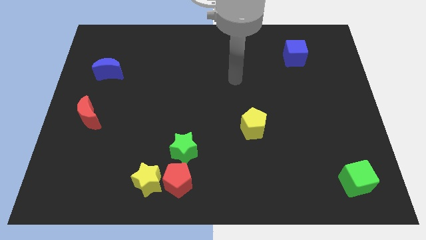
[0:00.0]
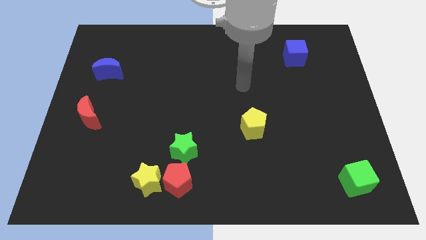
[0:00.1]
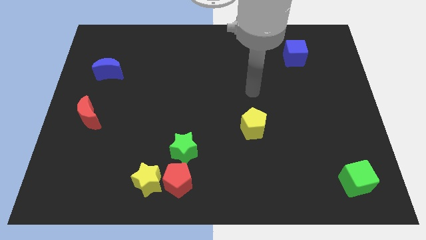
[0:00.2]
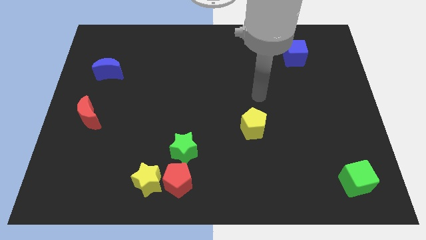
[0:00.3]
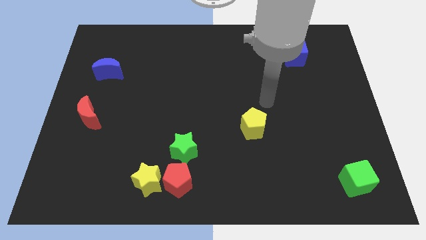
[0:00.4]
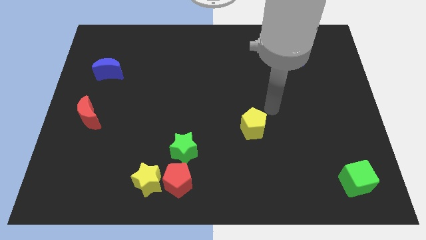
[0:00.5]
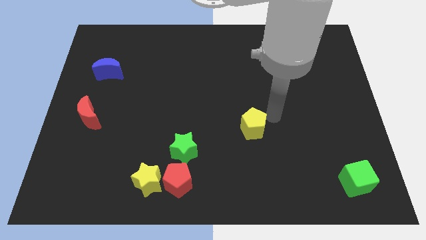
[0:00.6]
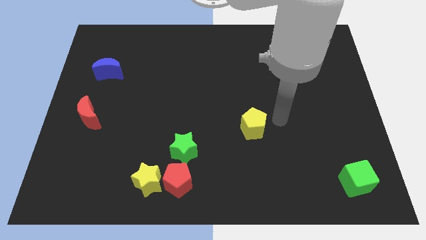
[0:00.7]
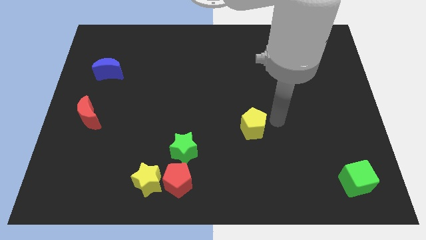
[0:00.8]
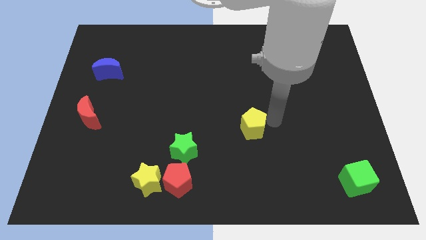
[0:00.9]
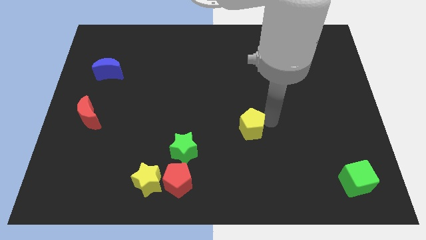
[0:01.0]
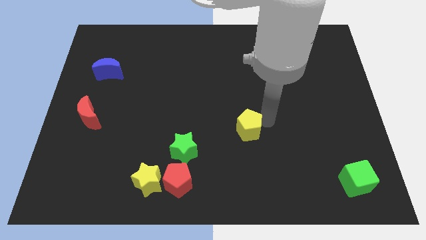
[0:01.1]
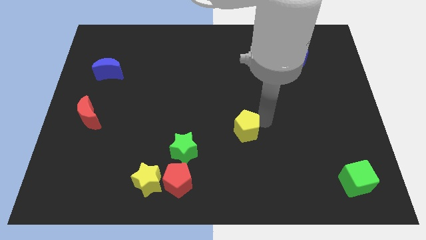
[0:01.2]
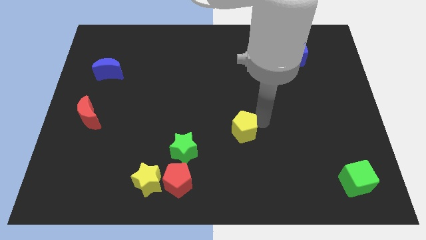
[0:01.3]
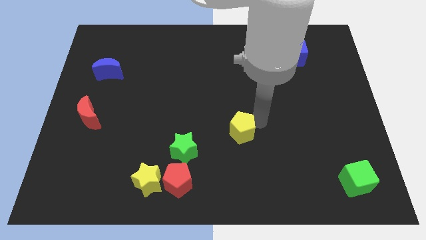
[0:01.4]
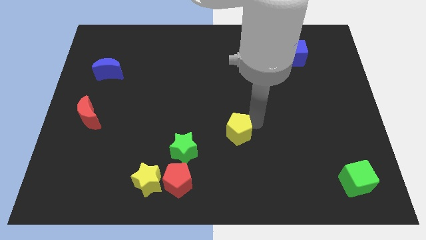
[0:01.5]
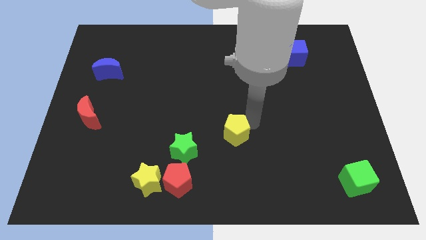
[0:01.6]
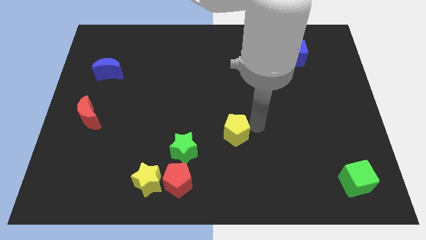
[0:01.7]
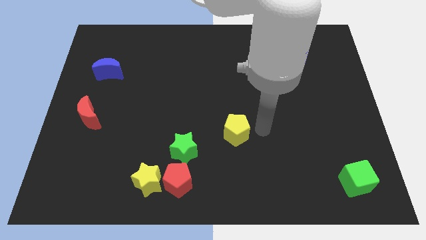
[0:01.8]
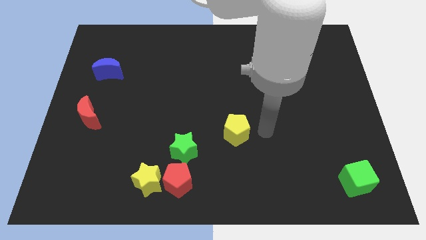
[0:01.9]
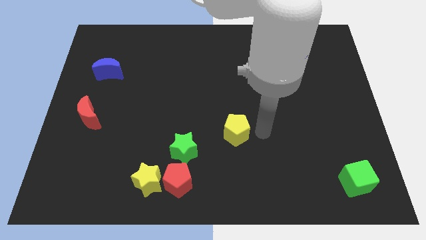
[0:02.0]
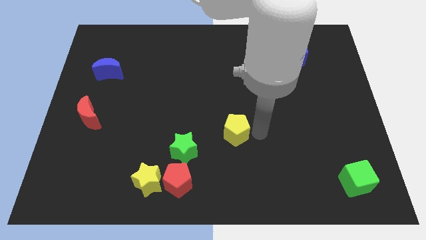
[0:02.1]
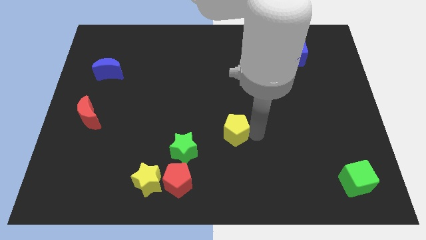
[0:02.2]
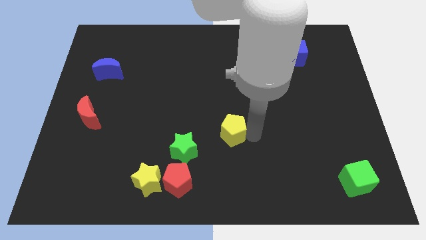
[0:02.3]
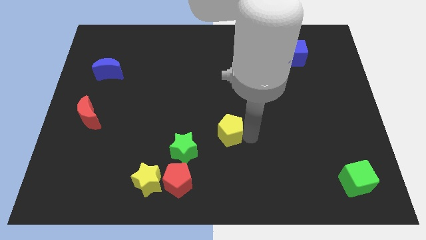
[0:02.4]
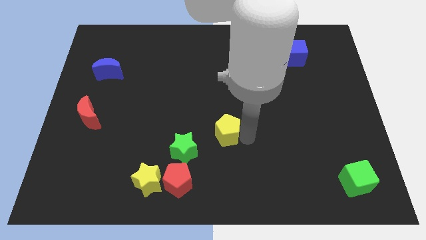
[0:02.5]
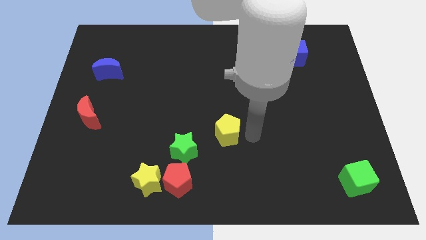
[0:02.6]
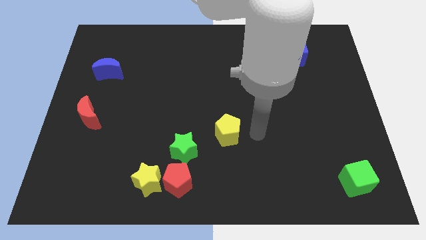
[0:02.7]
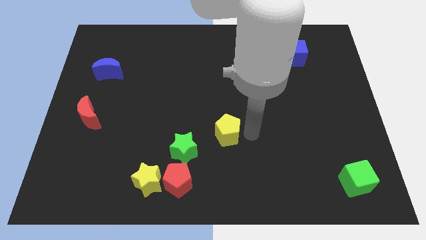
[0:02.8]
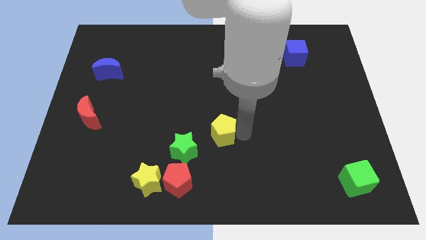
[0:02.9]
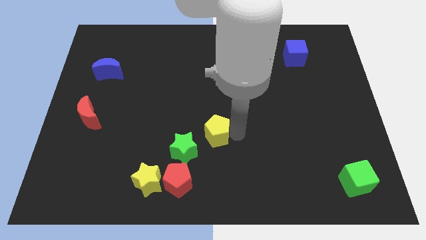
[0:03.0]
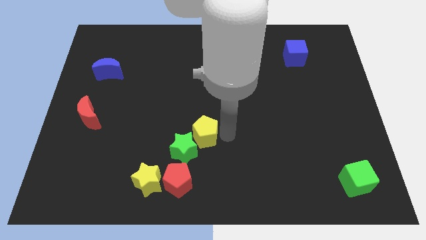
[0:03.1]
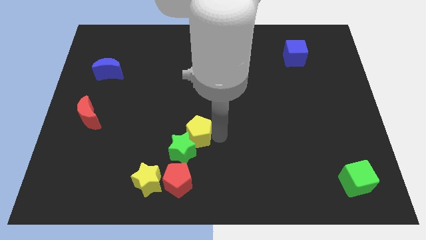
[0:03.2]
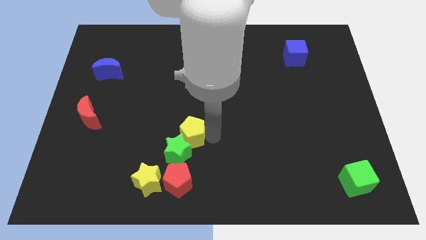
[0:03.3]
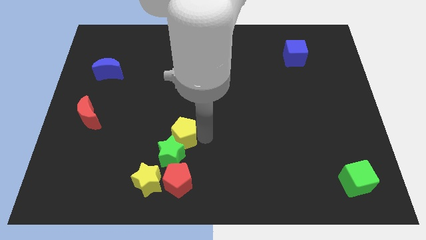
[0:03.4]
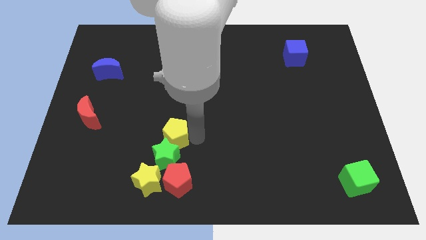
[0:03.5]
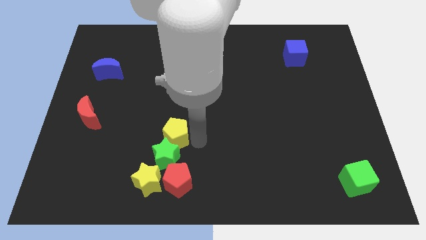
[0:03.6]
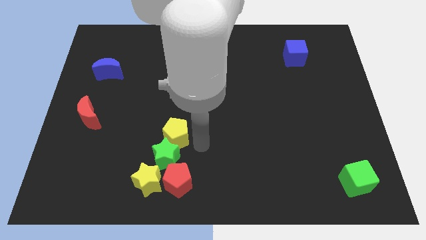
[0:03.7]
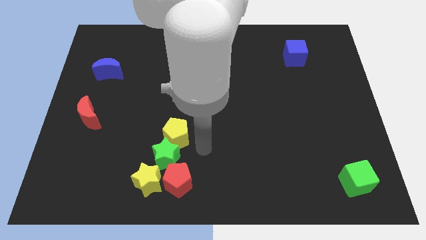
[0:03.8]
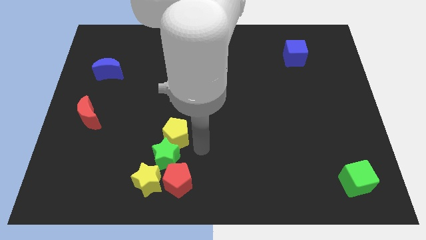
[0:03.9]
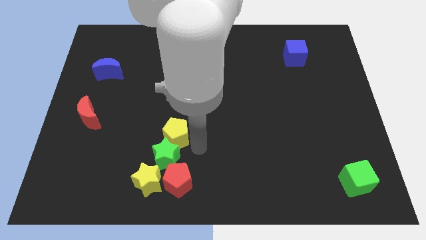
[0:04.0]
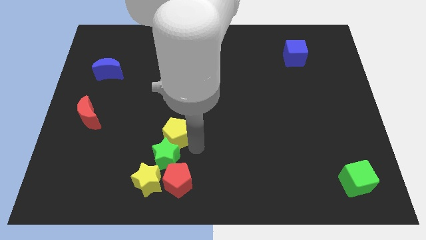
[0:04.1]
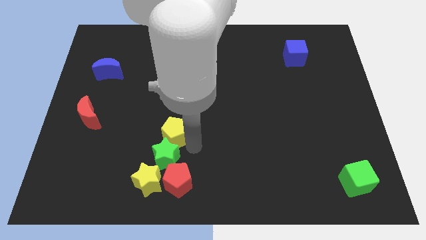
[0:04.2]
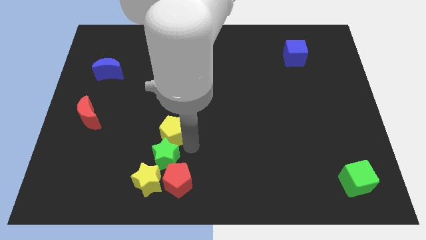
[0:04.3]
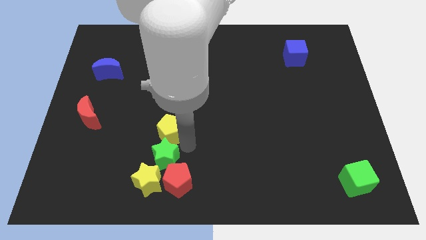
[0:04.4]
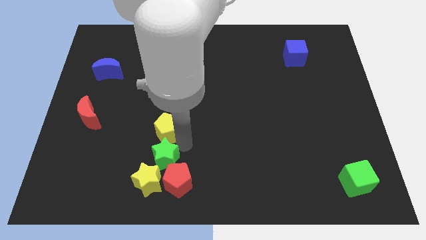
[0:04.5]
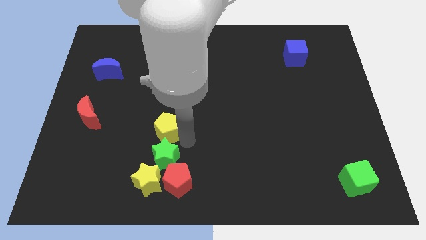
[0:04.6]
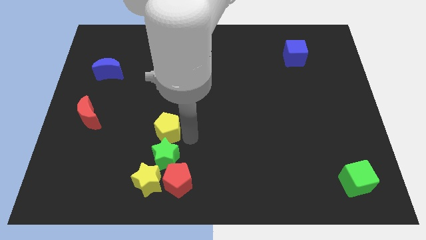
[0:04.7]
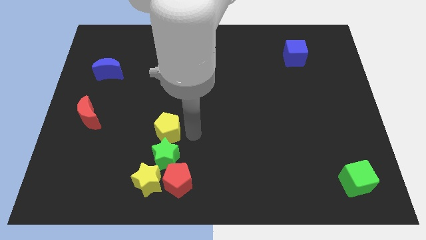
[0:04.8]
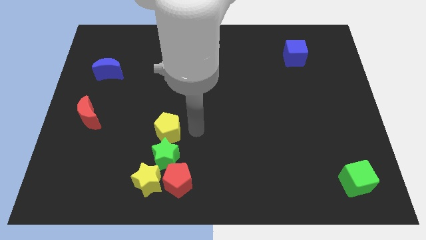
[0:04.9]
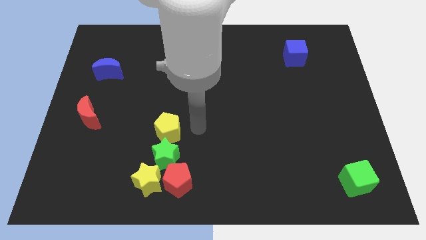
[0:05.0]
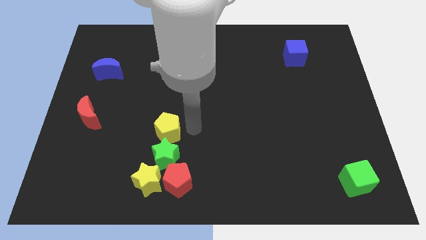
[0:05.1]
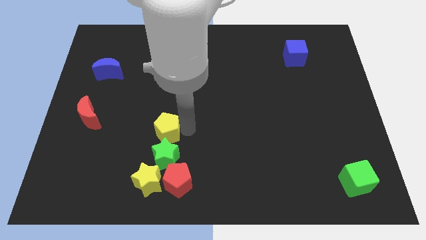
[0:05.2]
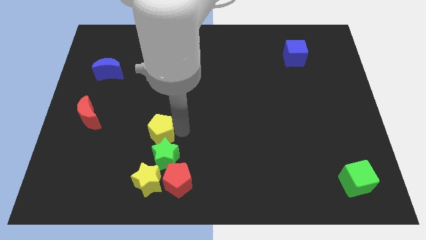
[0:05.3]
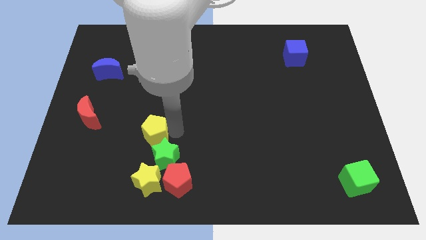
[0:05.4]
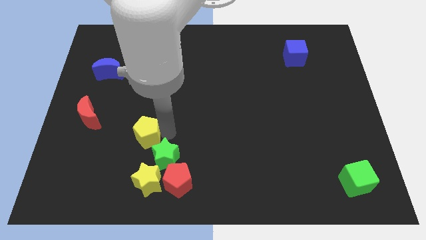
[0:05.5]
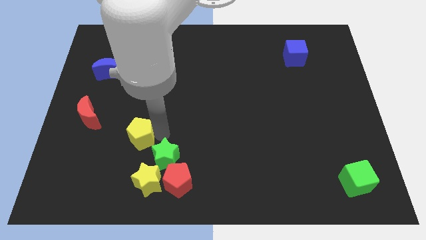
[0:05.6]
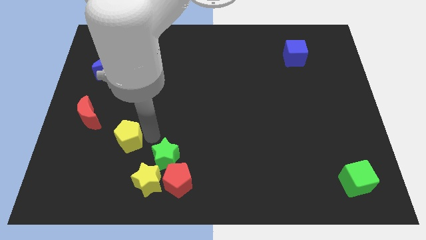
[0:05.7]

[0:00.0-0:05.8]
move the yellow pentagon diagonally down and to the right of the red moon

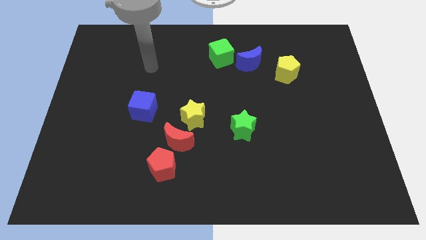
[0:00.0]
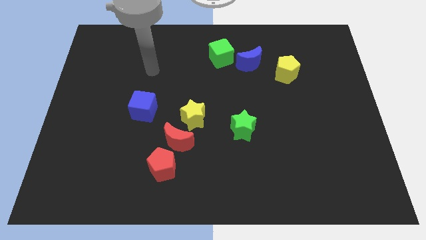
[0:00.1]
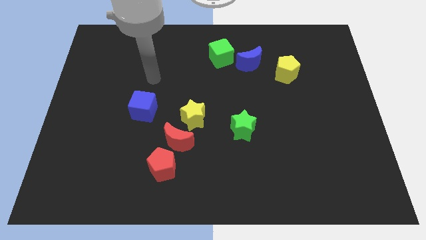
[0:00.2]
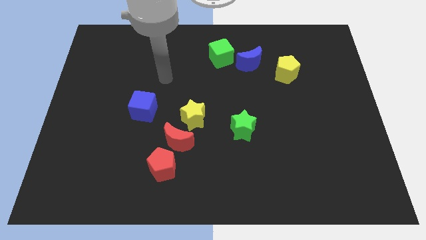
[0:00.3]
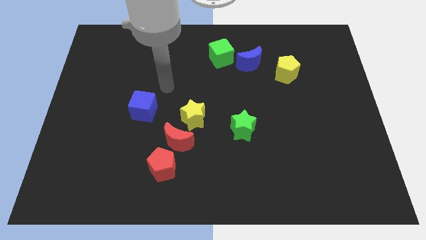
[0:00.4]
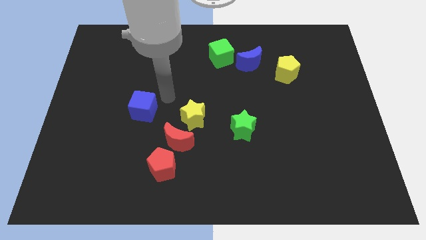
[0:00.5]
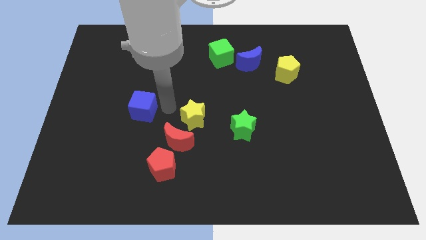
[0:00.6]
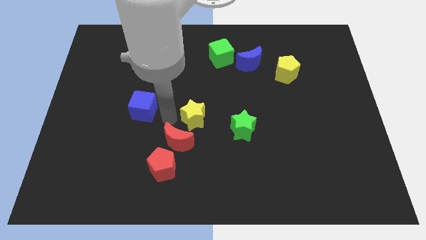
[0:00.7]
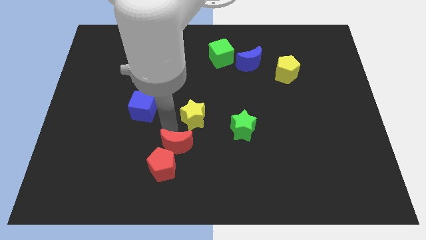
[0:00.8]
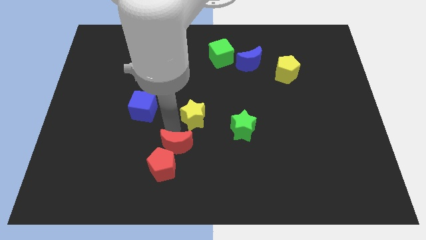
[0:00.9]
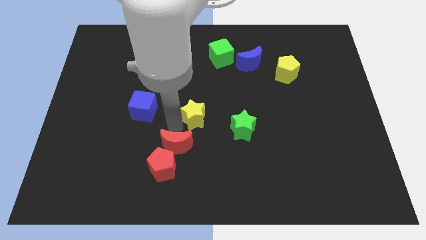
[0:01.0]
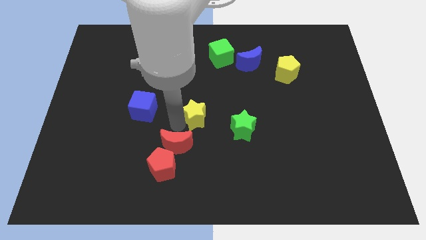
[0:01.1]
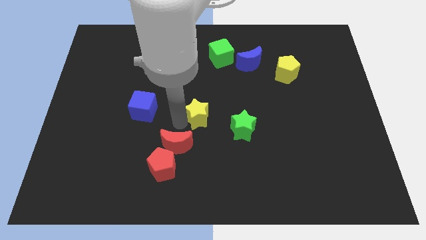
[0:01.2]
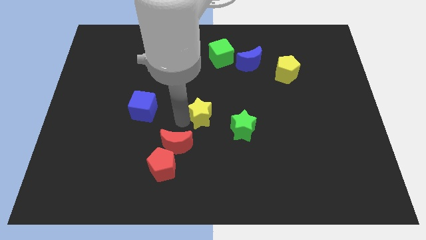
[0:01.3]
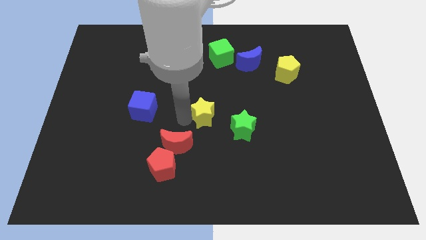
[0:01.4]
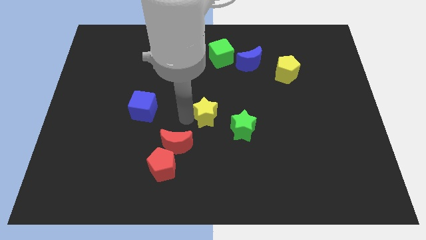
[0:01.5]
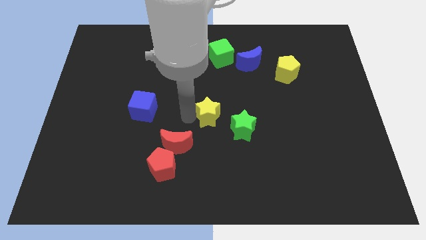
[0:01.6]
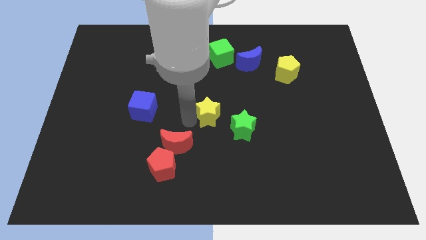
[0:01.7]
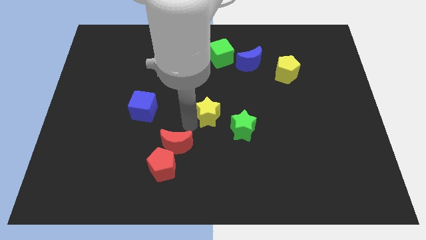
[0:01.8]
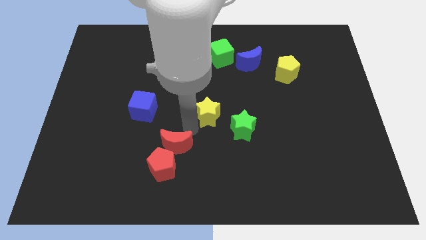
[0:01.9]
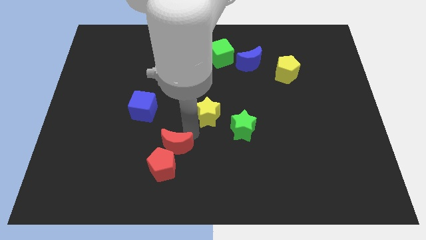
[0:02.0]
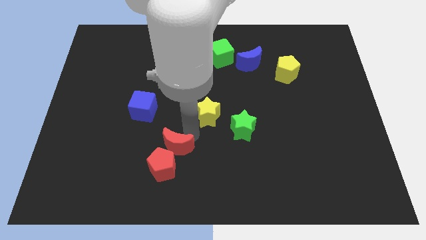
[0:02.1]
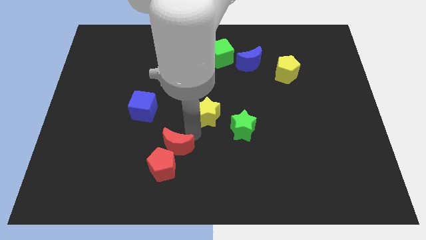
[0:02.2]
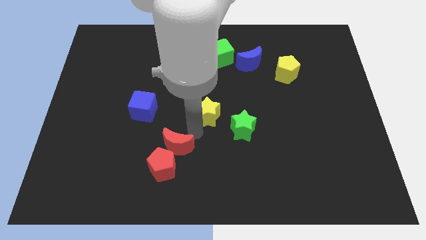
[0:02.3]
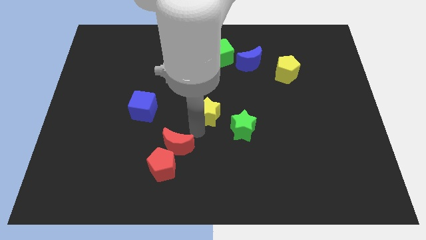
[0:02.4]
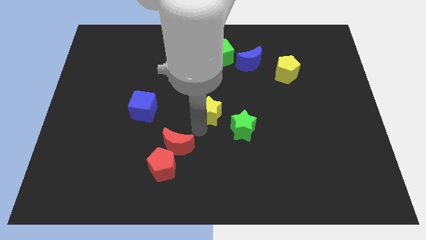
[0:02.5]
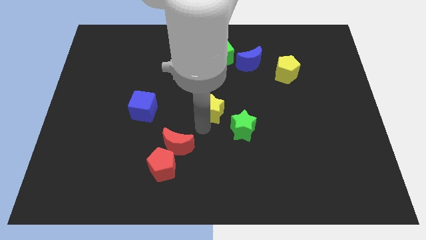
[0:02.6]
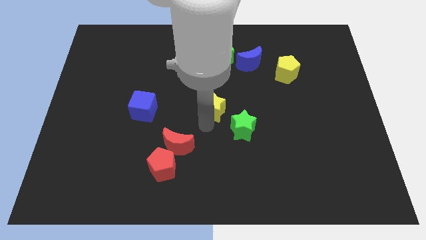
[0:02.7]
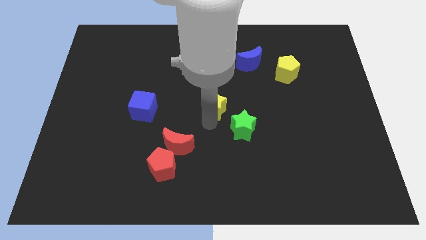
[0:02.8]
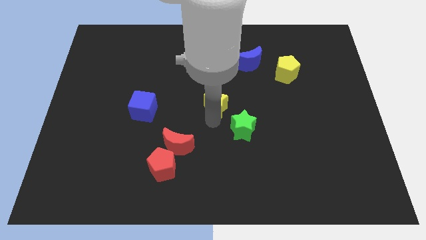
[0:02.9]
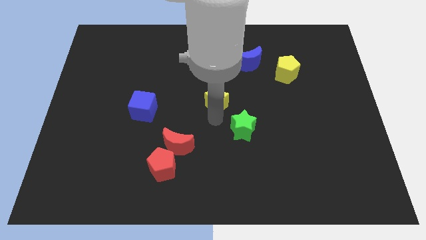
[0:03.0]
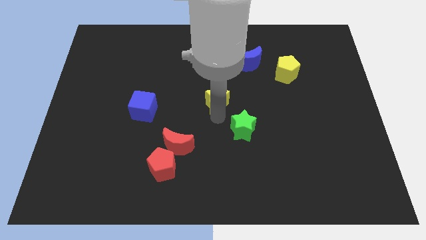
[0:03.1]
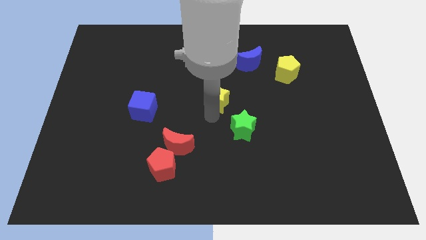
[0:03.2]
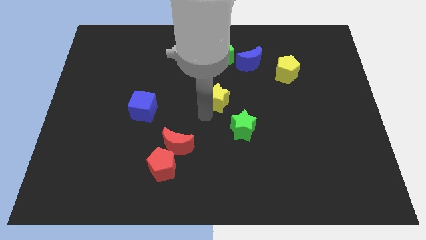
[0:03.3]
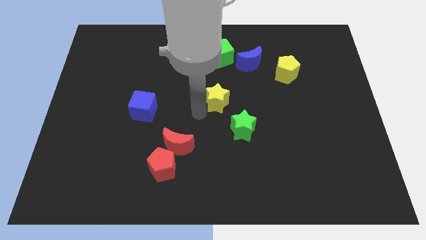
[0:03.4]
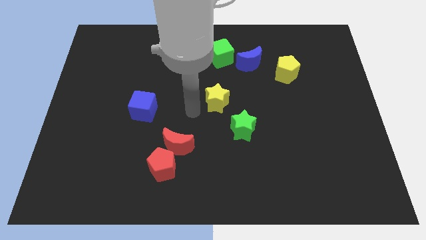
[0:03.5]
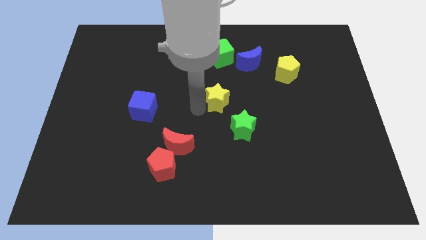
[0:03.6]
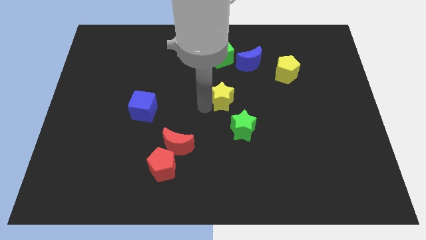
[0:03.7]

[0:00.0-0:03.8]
slide the yellow star to the top side of the green star
